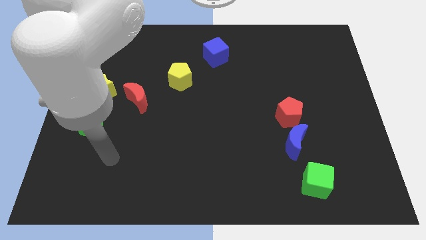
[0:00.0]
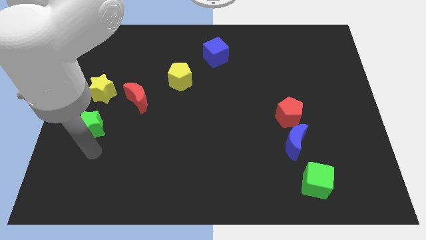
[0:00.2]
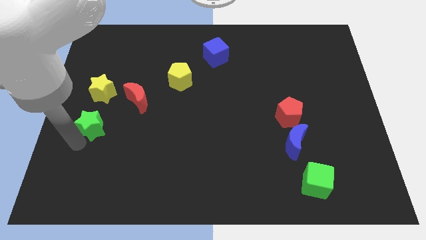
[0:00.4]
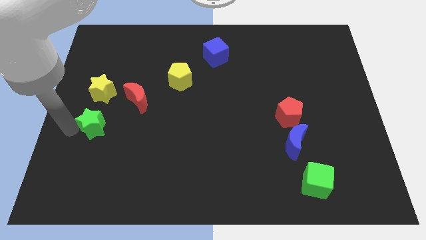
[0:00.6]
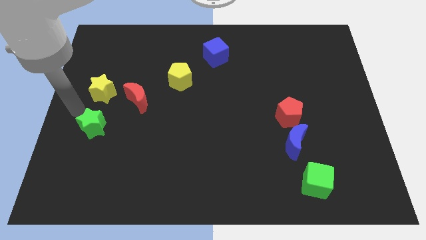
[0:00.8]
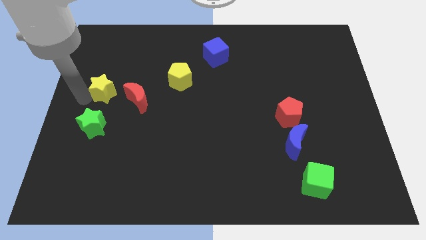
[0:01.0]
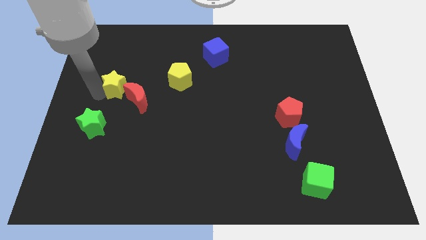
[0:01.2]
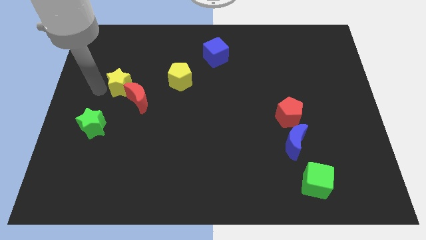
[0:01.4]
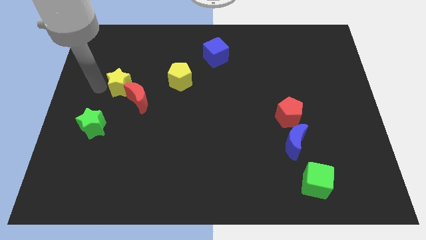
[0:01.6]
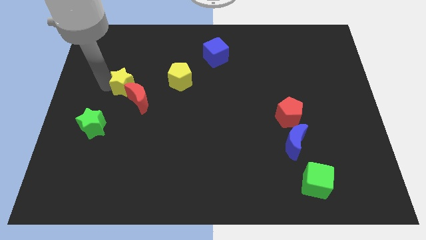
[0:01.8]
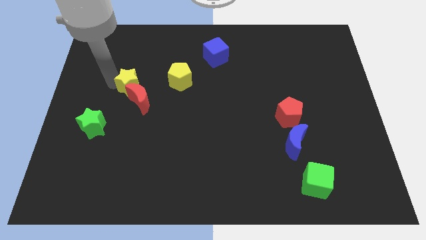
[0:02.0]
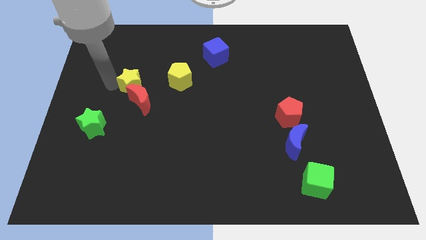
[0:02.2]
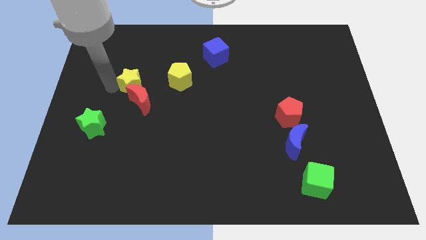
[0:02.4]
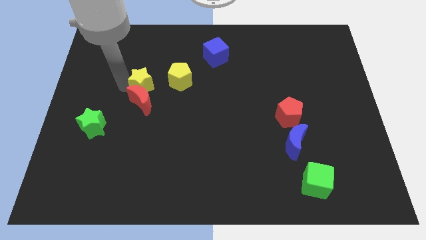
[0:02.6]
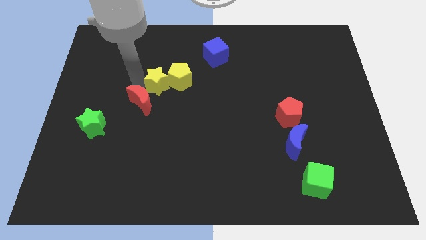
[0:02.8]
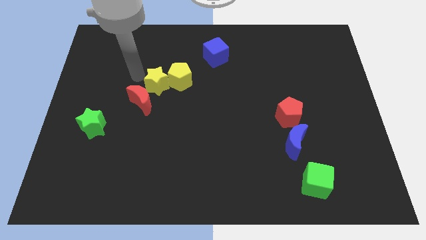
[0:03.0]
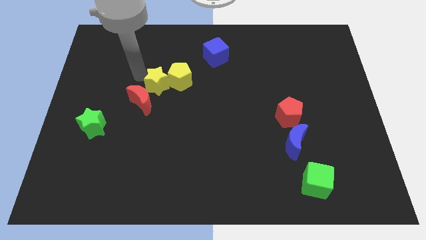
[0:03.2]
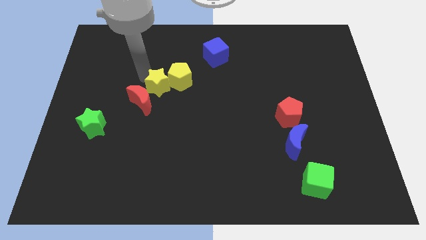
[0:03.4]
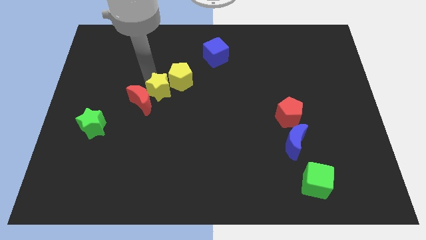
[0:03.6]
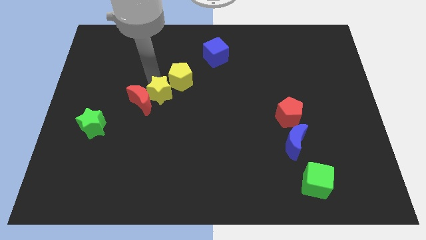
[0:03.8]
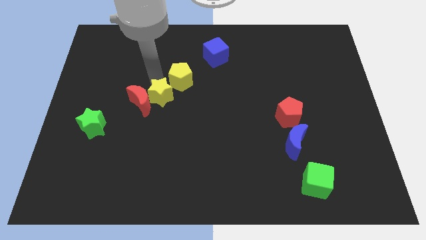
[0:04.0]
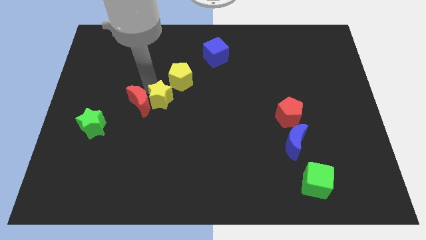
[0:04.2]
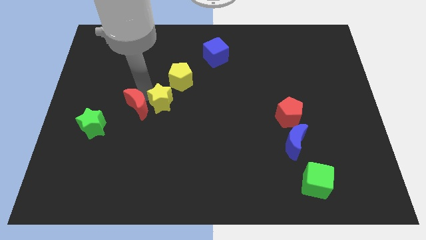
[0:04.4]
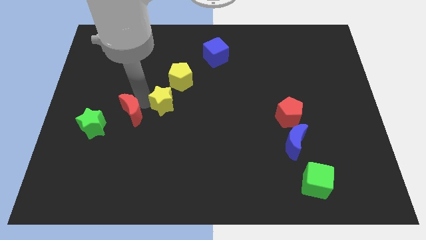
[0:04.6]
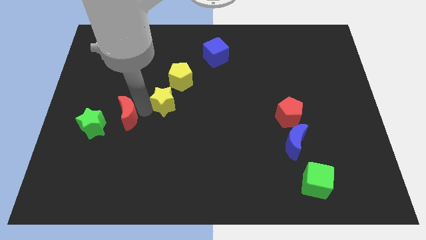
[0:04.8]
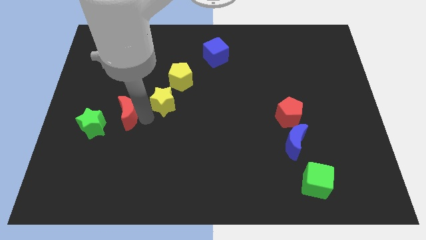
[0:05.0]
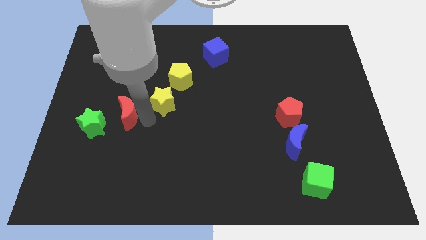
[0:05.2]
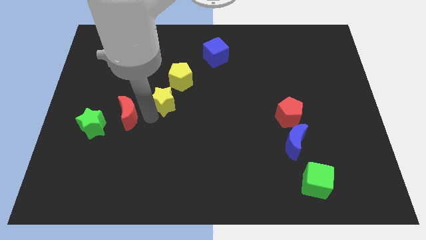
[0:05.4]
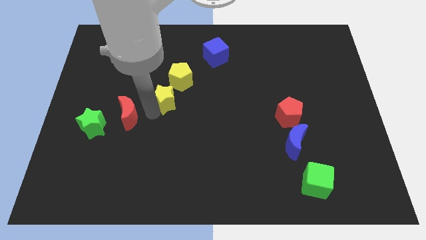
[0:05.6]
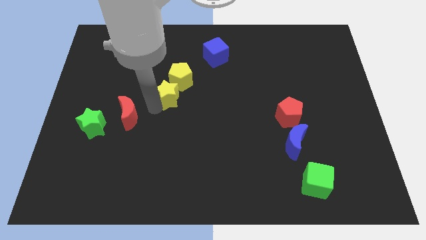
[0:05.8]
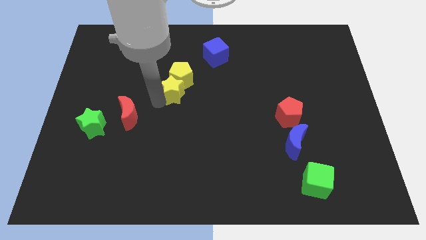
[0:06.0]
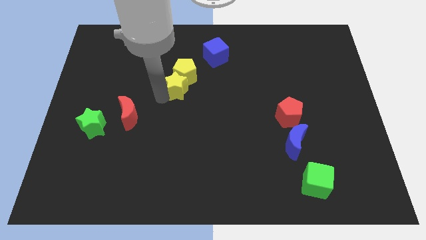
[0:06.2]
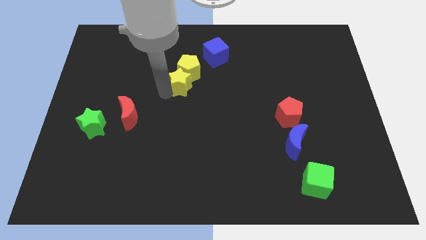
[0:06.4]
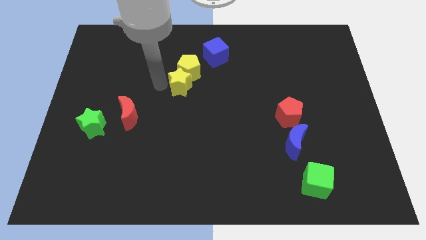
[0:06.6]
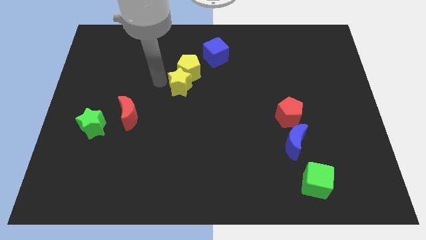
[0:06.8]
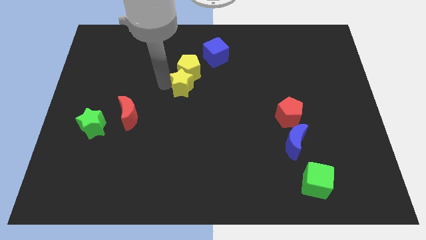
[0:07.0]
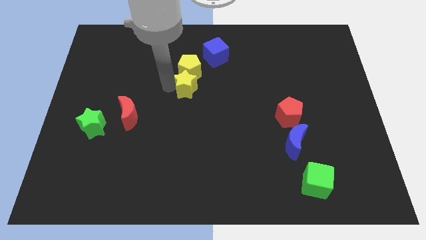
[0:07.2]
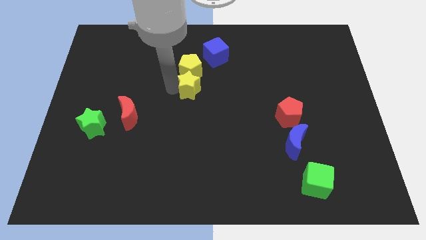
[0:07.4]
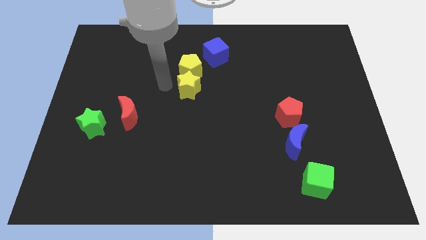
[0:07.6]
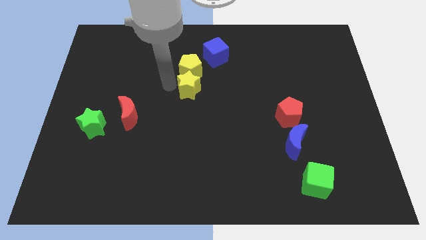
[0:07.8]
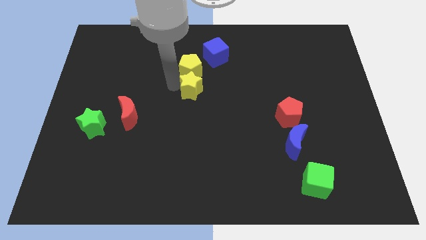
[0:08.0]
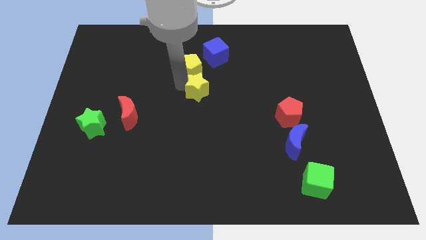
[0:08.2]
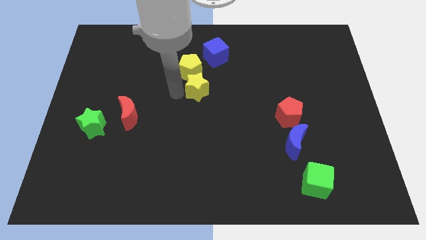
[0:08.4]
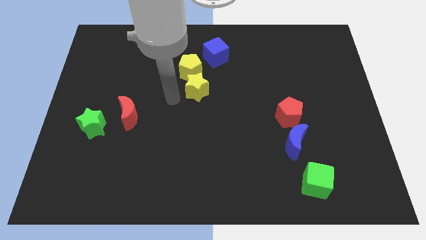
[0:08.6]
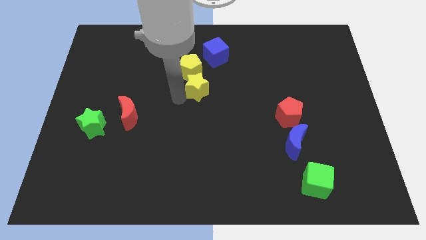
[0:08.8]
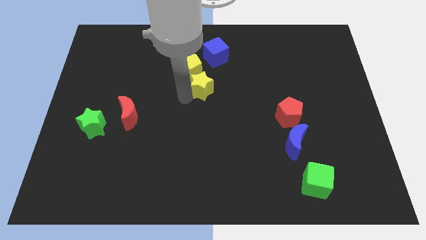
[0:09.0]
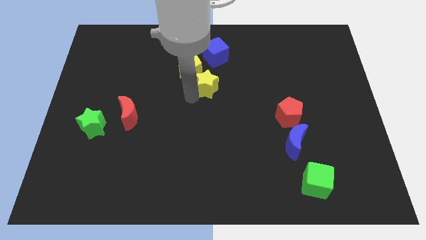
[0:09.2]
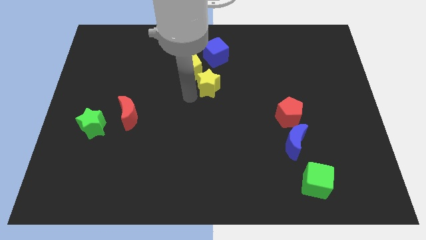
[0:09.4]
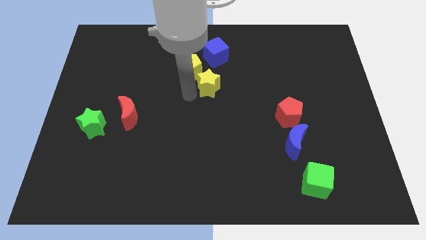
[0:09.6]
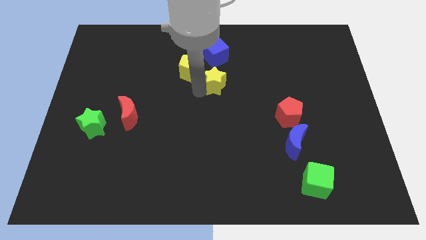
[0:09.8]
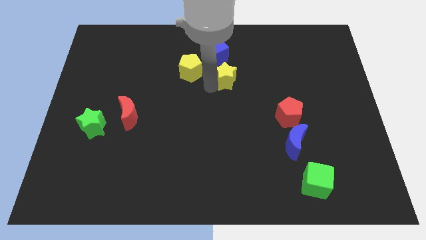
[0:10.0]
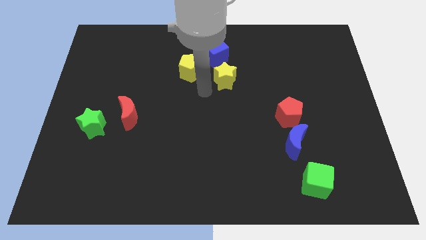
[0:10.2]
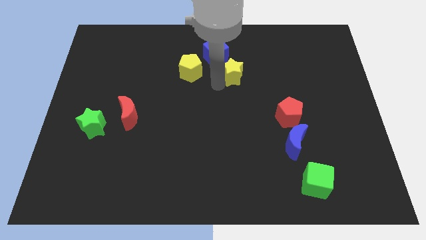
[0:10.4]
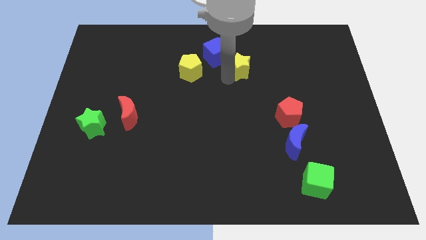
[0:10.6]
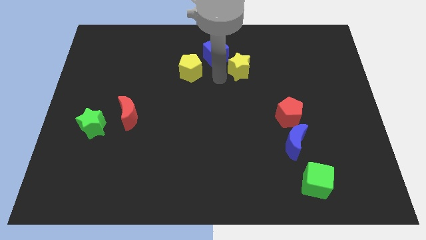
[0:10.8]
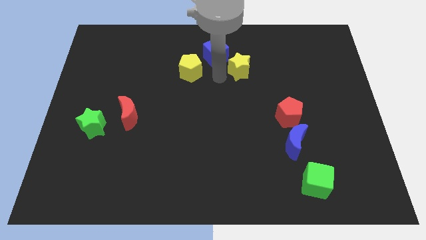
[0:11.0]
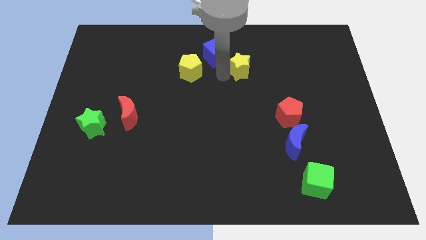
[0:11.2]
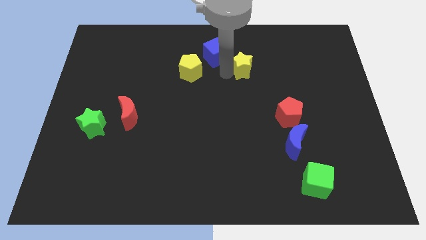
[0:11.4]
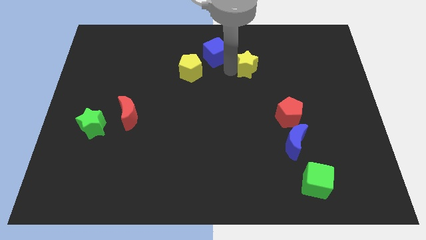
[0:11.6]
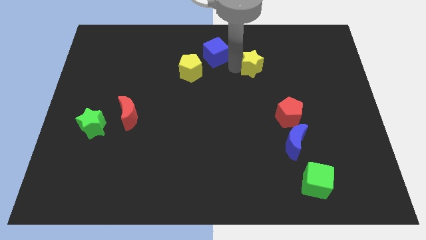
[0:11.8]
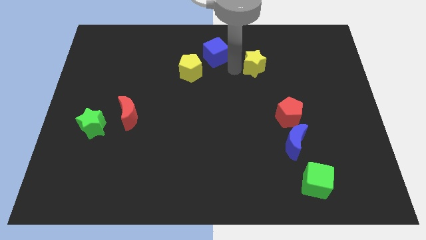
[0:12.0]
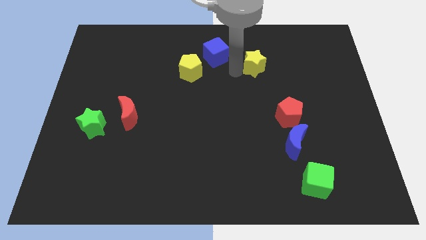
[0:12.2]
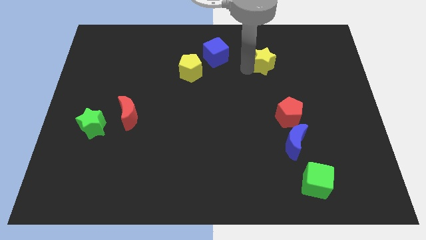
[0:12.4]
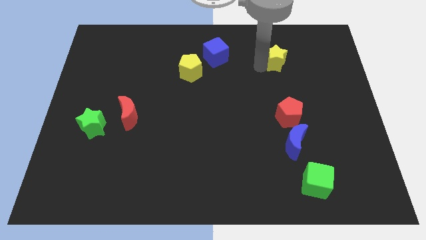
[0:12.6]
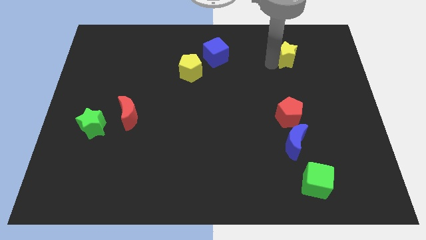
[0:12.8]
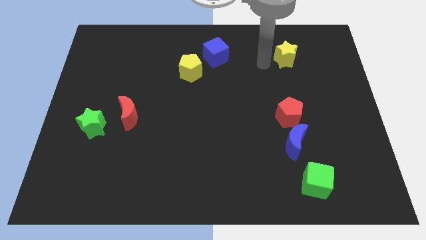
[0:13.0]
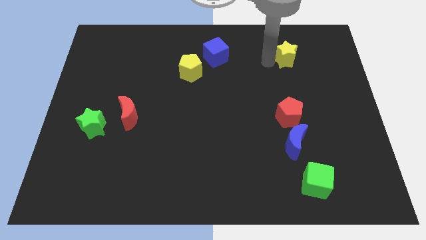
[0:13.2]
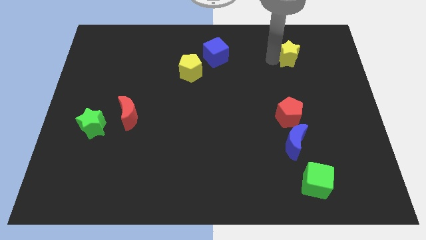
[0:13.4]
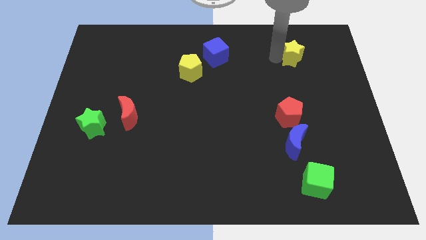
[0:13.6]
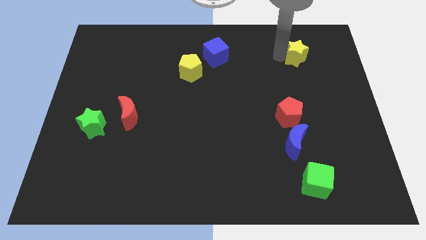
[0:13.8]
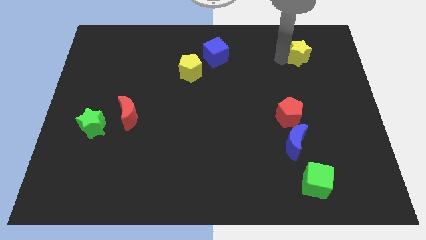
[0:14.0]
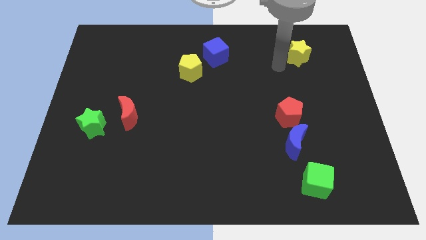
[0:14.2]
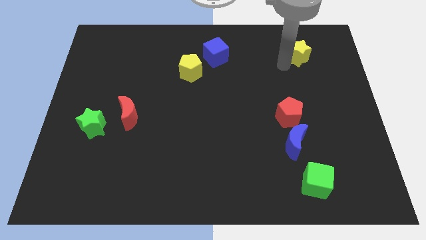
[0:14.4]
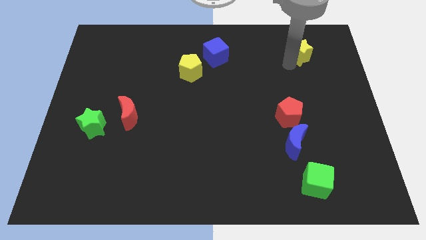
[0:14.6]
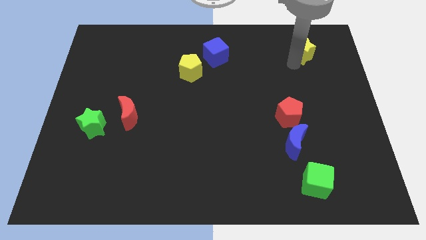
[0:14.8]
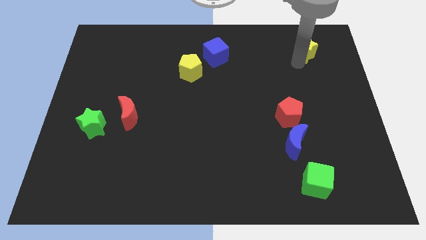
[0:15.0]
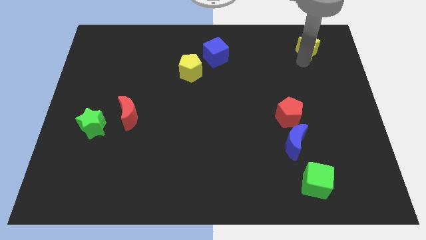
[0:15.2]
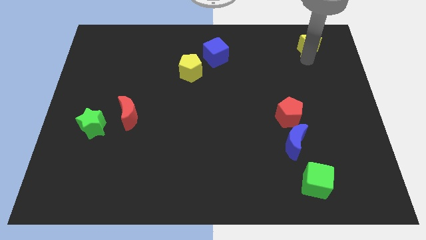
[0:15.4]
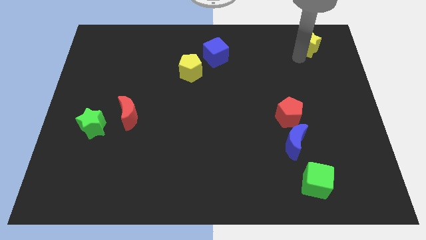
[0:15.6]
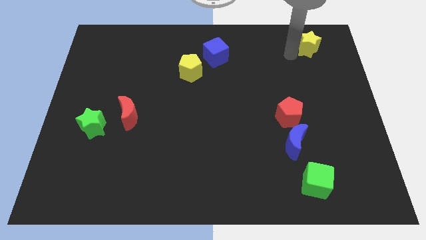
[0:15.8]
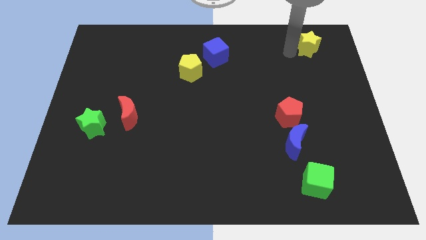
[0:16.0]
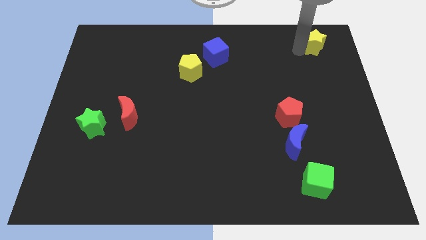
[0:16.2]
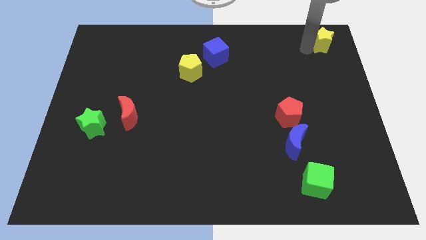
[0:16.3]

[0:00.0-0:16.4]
slide the yellow star to the upper right corner
